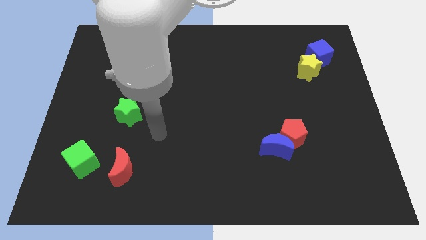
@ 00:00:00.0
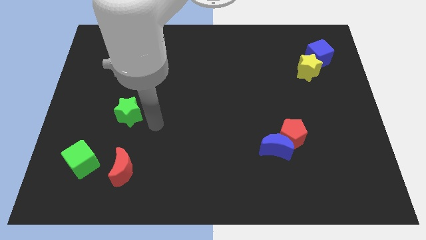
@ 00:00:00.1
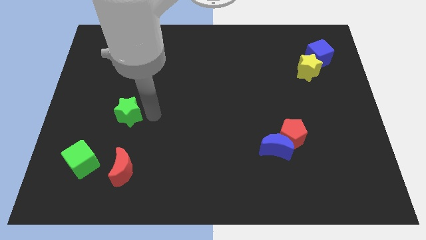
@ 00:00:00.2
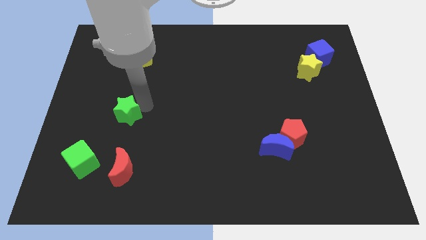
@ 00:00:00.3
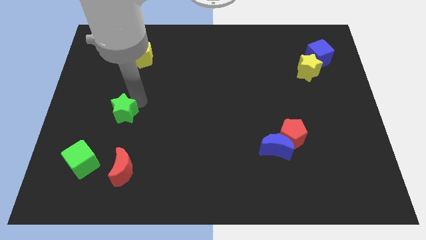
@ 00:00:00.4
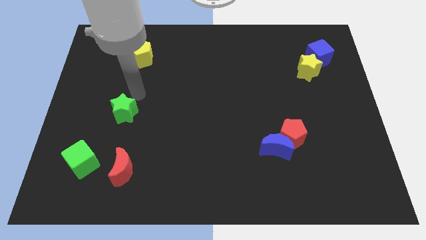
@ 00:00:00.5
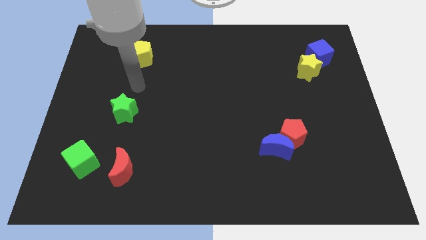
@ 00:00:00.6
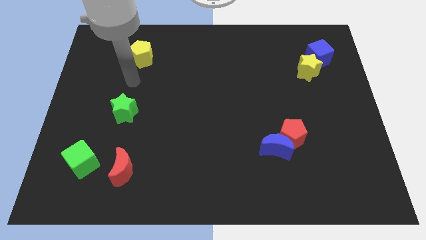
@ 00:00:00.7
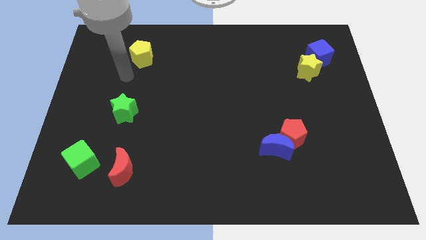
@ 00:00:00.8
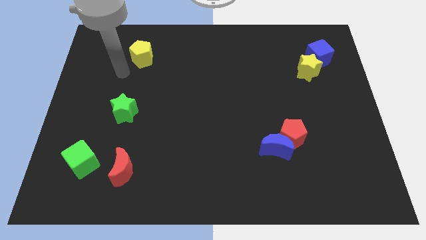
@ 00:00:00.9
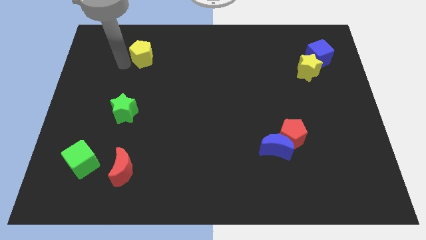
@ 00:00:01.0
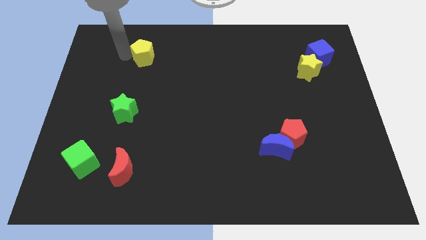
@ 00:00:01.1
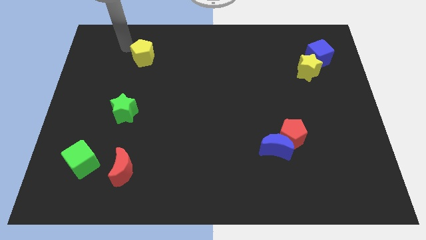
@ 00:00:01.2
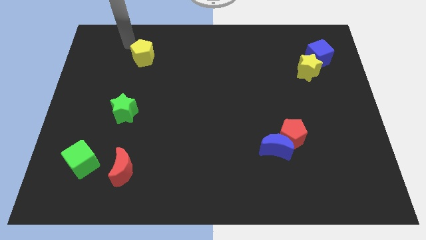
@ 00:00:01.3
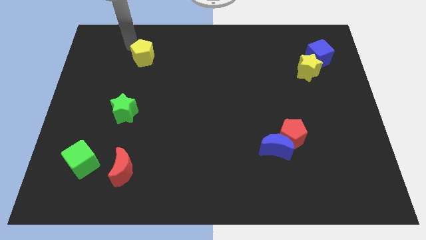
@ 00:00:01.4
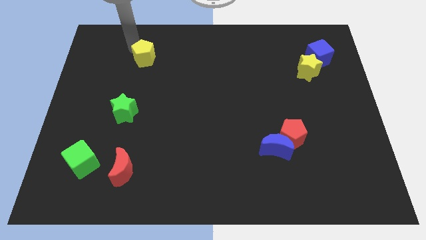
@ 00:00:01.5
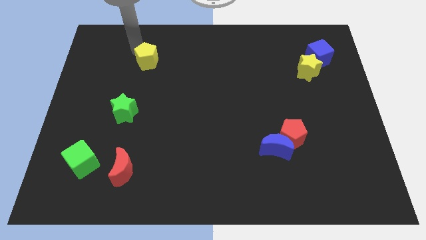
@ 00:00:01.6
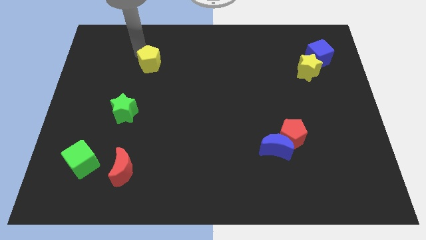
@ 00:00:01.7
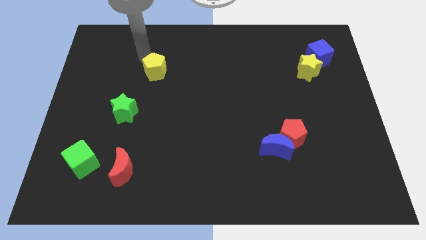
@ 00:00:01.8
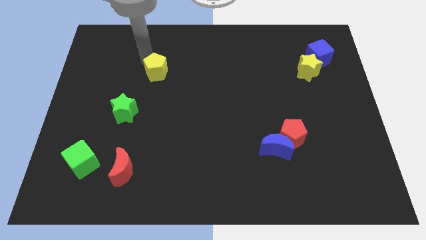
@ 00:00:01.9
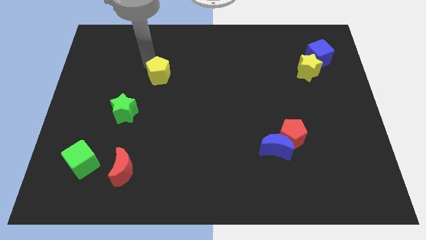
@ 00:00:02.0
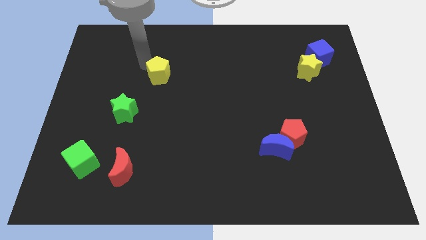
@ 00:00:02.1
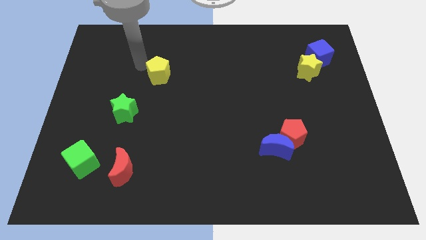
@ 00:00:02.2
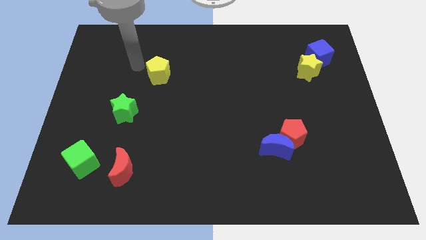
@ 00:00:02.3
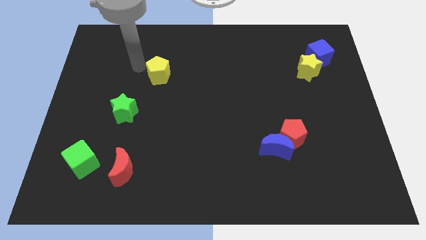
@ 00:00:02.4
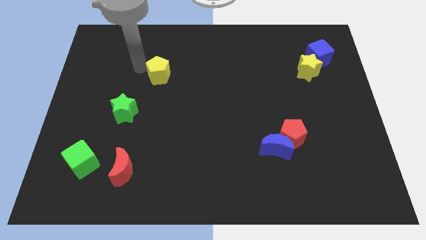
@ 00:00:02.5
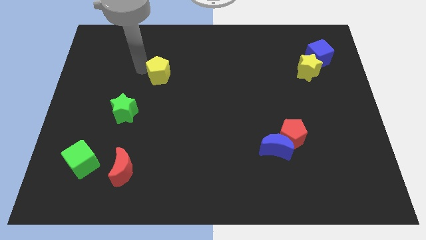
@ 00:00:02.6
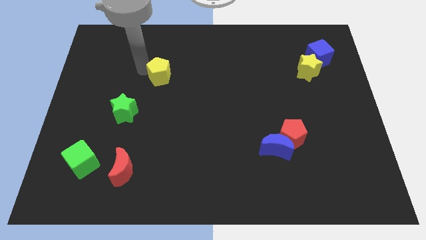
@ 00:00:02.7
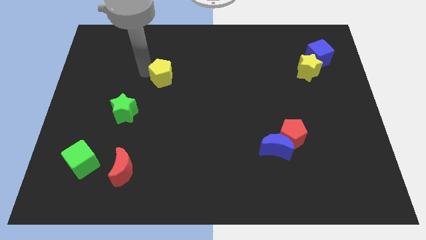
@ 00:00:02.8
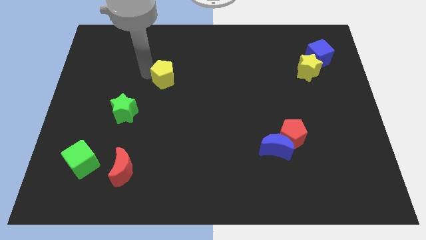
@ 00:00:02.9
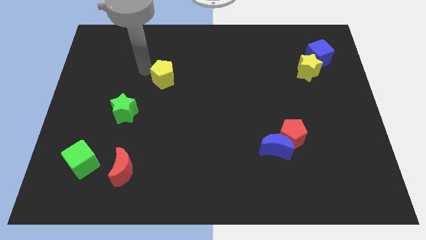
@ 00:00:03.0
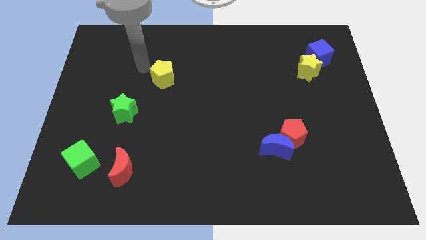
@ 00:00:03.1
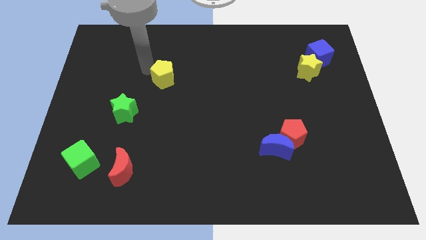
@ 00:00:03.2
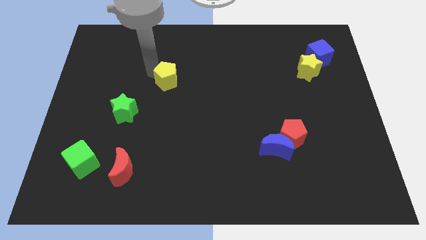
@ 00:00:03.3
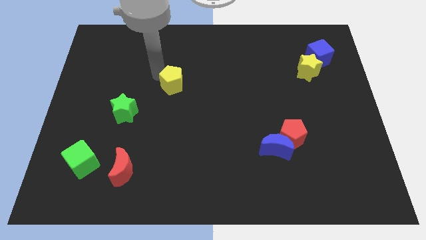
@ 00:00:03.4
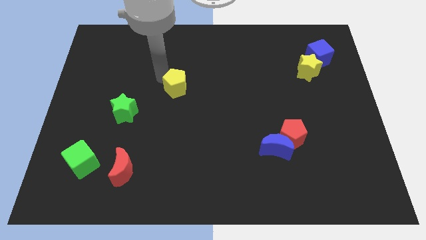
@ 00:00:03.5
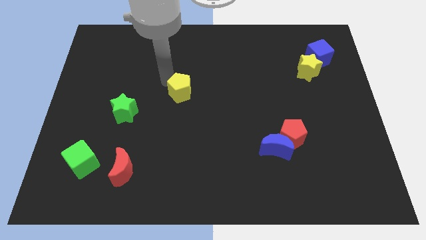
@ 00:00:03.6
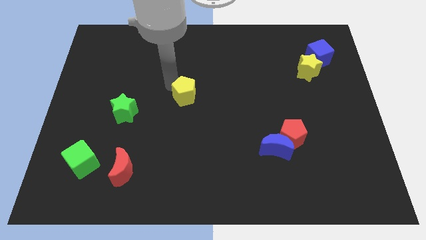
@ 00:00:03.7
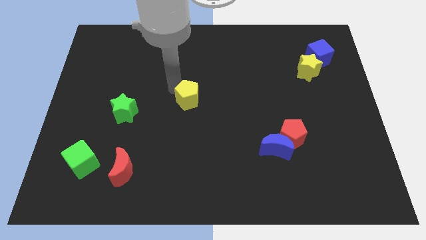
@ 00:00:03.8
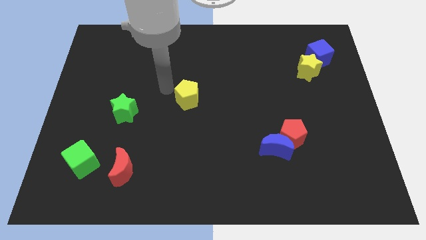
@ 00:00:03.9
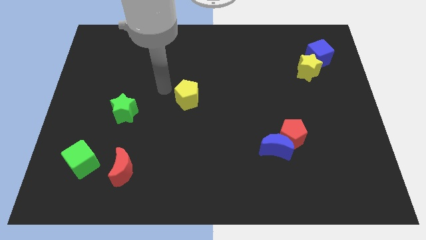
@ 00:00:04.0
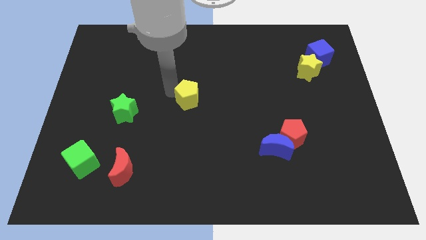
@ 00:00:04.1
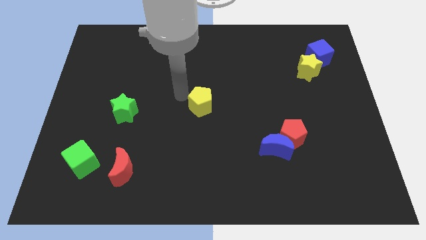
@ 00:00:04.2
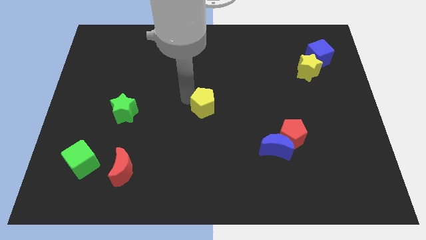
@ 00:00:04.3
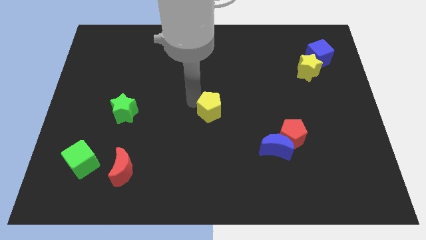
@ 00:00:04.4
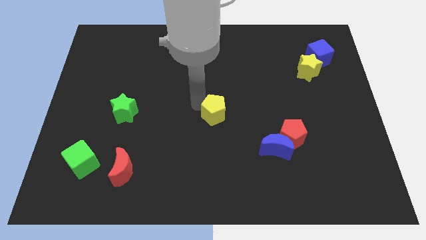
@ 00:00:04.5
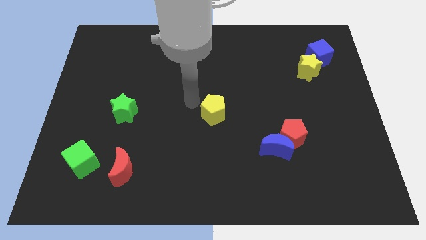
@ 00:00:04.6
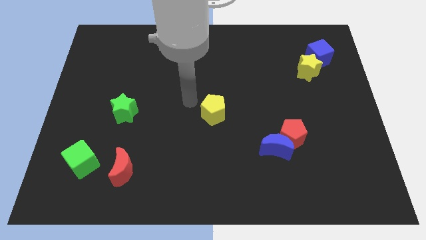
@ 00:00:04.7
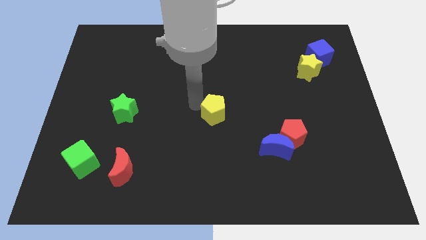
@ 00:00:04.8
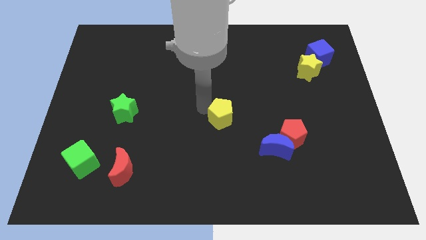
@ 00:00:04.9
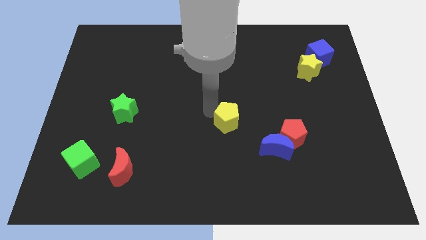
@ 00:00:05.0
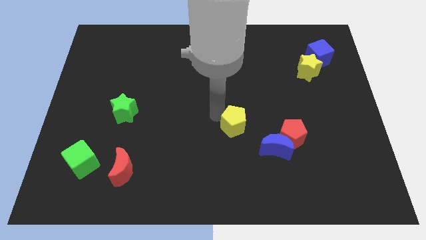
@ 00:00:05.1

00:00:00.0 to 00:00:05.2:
slide the yellow pentagon to the top left of the blue moon

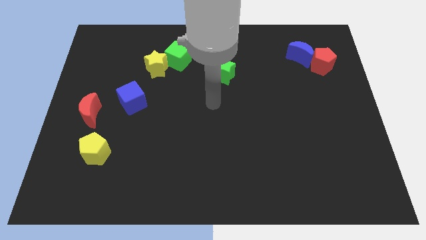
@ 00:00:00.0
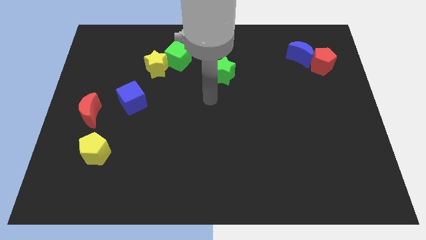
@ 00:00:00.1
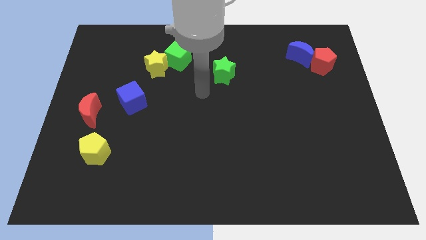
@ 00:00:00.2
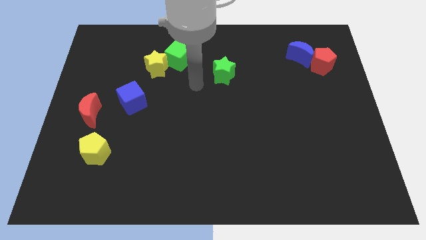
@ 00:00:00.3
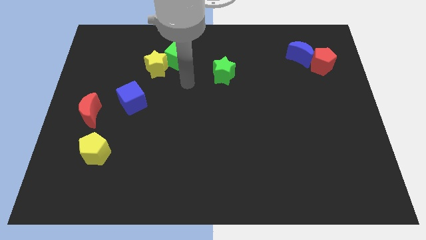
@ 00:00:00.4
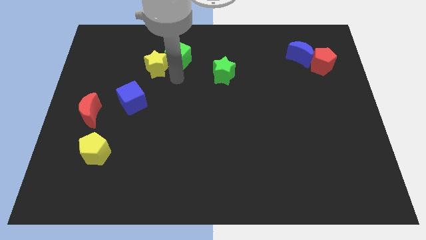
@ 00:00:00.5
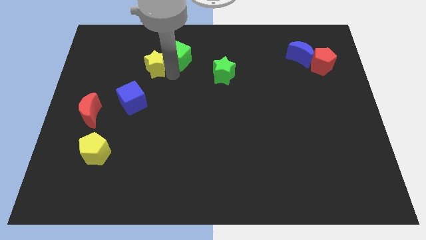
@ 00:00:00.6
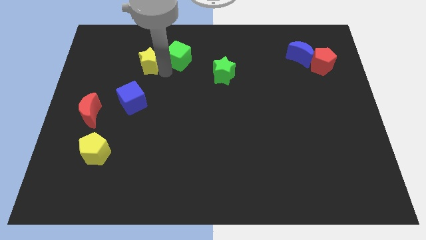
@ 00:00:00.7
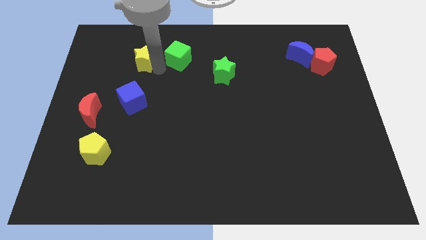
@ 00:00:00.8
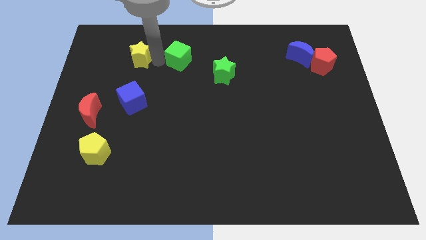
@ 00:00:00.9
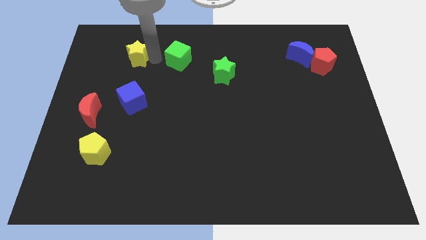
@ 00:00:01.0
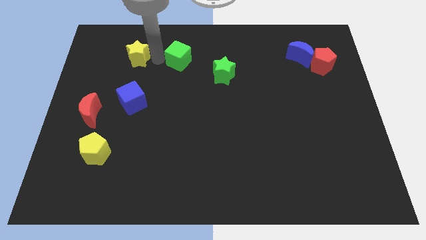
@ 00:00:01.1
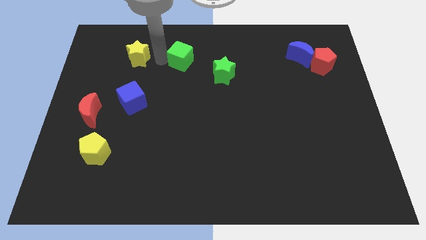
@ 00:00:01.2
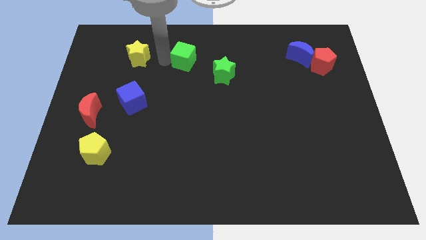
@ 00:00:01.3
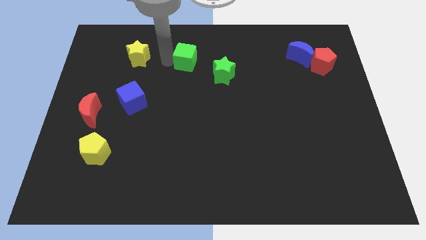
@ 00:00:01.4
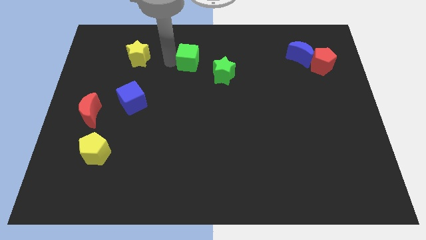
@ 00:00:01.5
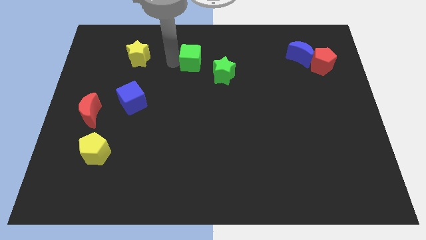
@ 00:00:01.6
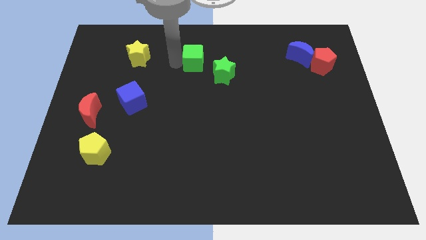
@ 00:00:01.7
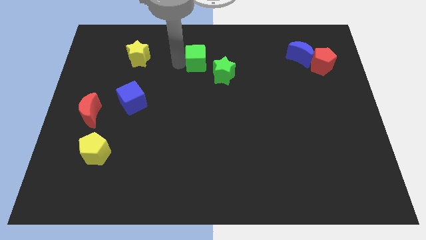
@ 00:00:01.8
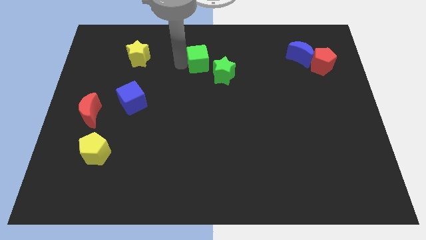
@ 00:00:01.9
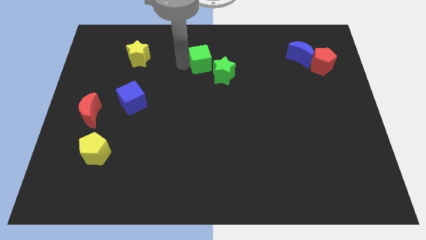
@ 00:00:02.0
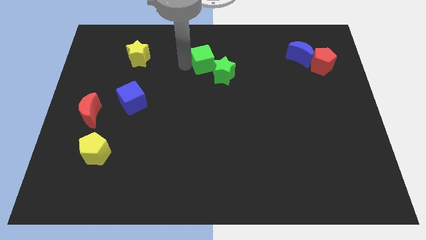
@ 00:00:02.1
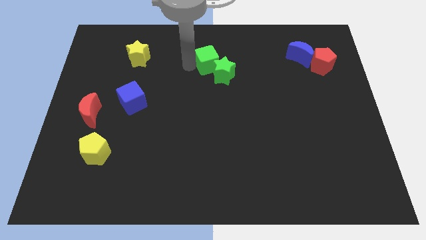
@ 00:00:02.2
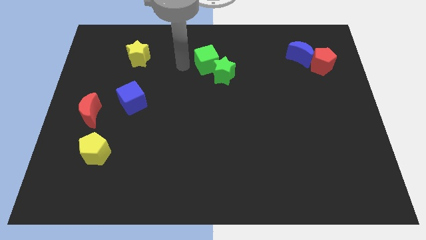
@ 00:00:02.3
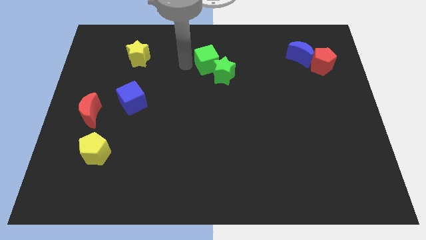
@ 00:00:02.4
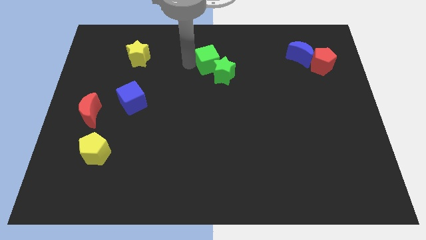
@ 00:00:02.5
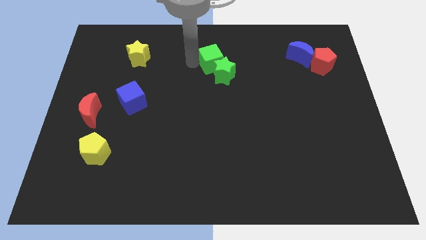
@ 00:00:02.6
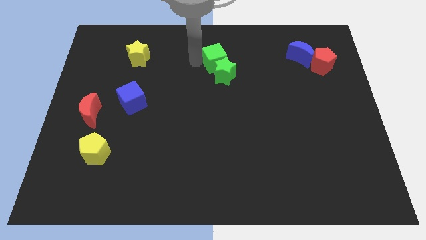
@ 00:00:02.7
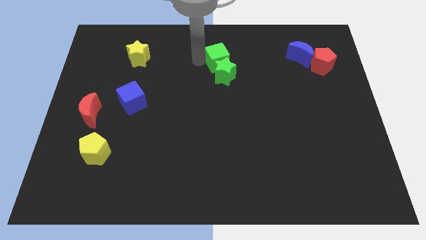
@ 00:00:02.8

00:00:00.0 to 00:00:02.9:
push the green cube to the top right of the green star
